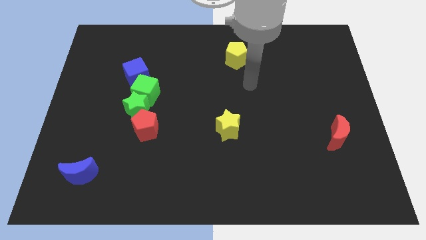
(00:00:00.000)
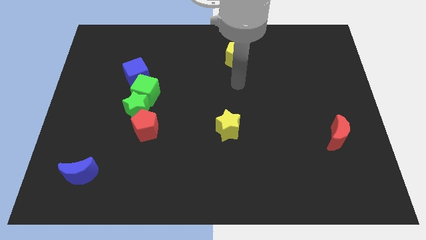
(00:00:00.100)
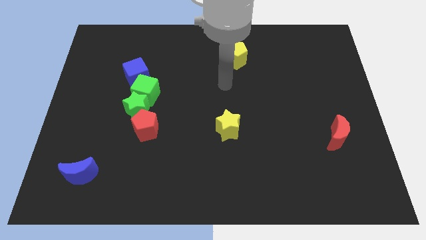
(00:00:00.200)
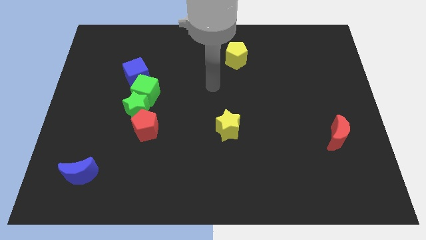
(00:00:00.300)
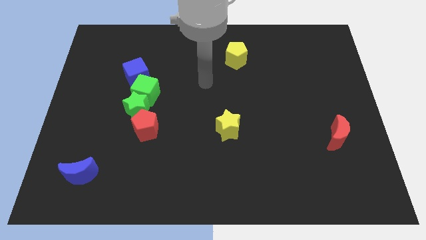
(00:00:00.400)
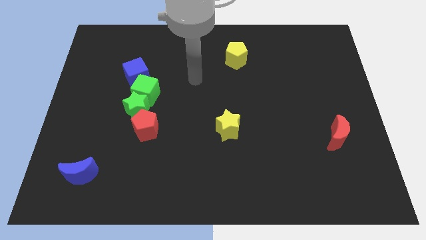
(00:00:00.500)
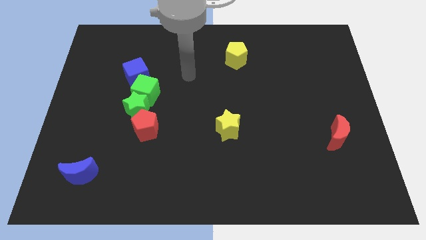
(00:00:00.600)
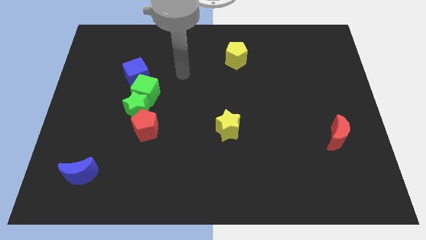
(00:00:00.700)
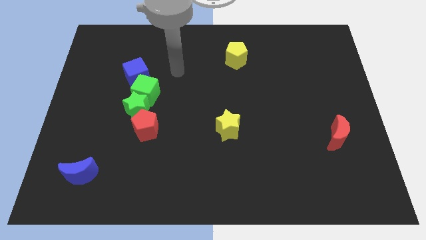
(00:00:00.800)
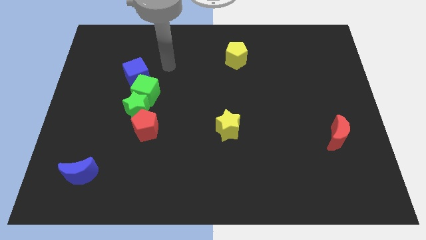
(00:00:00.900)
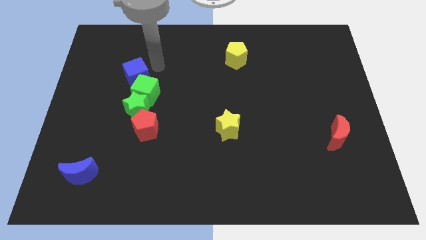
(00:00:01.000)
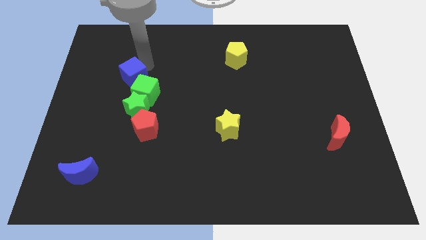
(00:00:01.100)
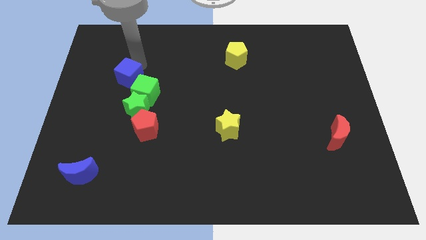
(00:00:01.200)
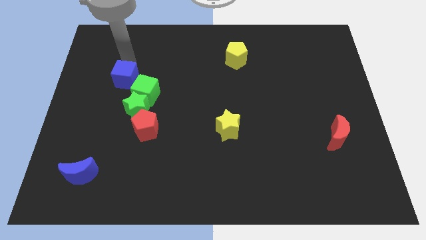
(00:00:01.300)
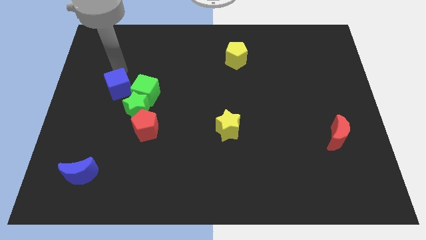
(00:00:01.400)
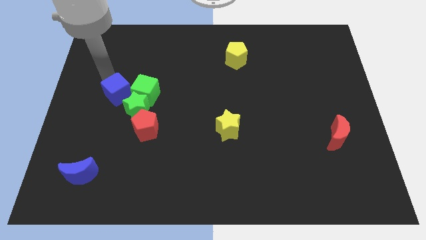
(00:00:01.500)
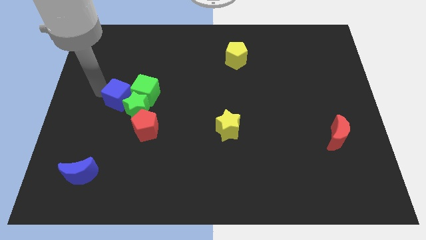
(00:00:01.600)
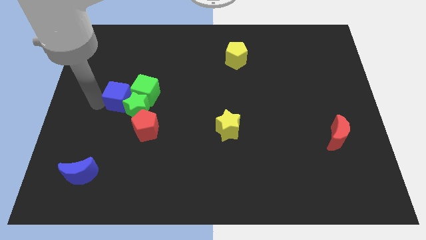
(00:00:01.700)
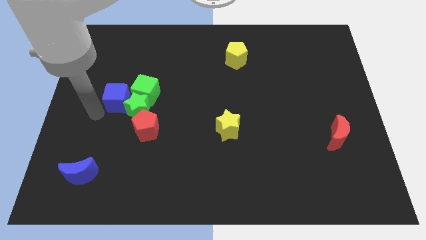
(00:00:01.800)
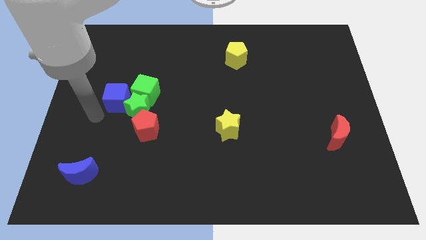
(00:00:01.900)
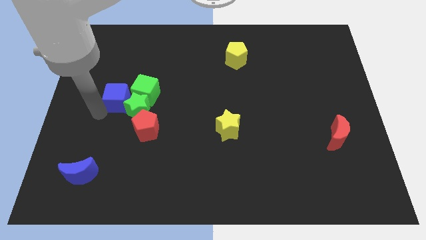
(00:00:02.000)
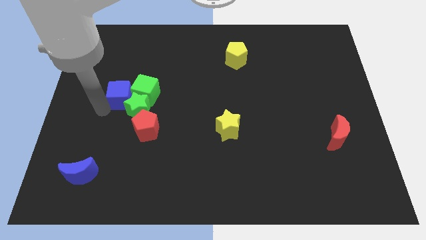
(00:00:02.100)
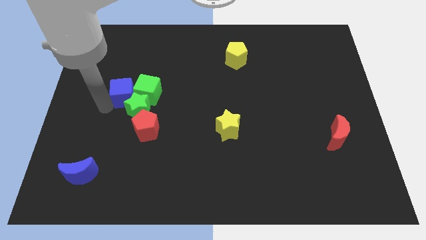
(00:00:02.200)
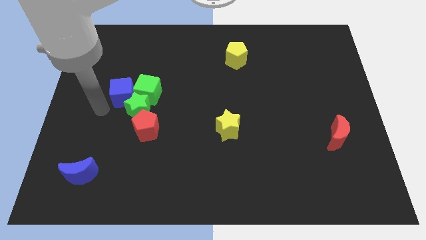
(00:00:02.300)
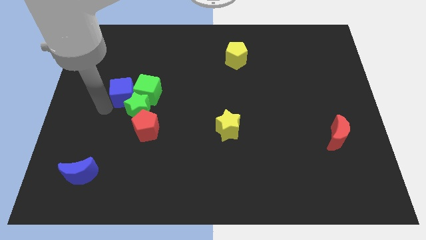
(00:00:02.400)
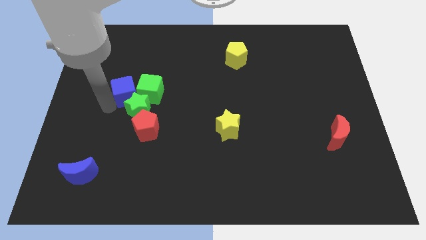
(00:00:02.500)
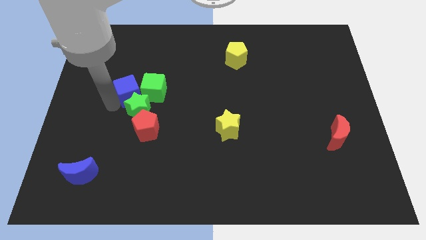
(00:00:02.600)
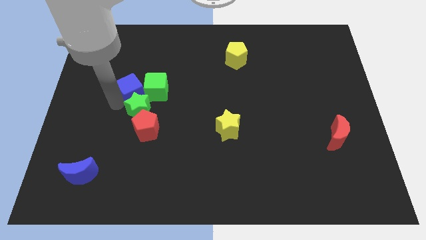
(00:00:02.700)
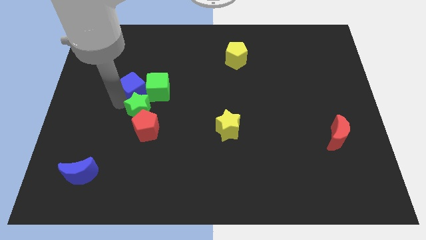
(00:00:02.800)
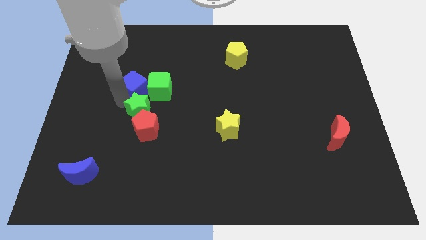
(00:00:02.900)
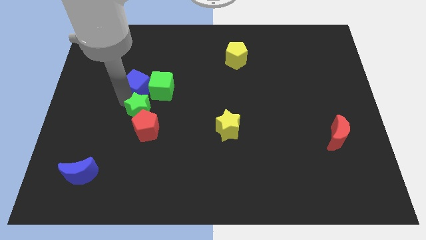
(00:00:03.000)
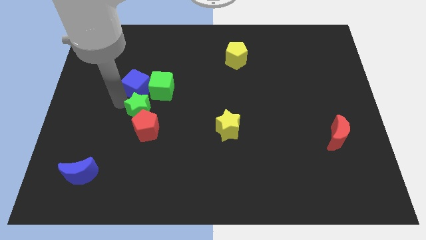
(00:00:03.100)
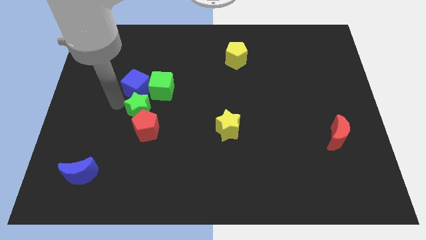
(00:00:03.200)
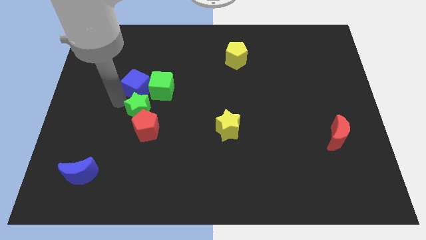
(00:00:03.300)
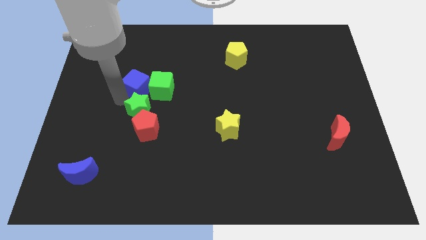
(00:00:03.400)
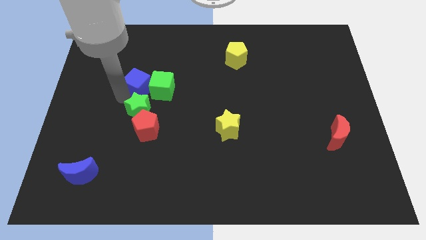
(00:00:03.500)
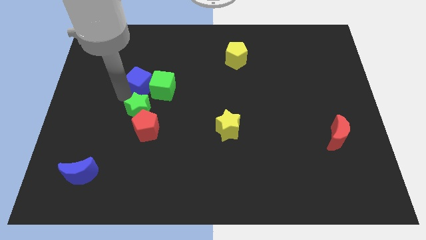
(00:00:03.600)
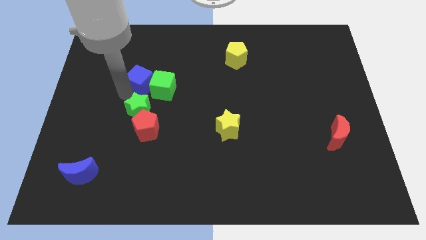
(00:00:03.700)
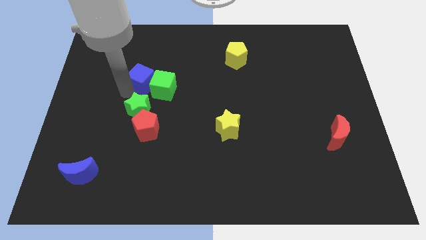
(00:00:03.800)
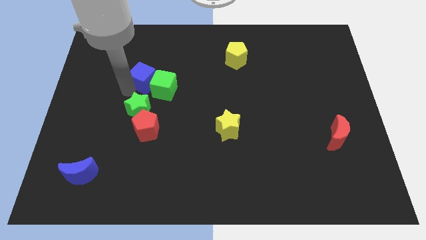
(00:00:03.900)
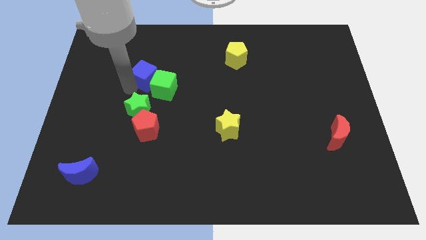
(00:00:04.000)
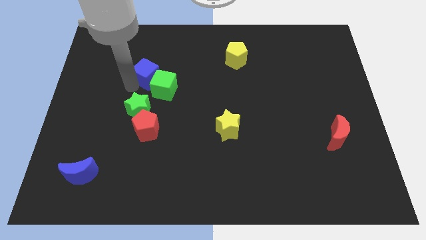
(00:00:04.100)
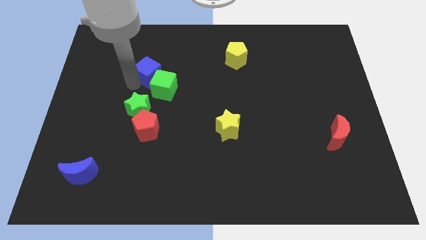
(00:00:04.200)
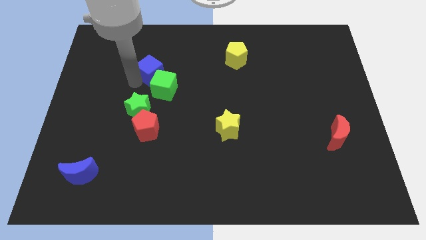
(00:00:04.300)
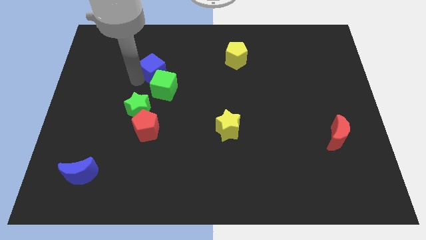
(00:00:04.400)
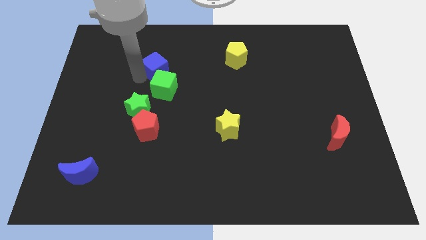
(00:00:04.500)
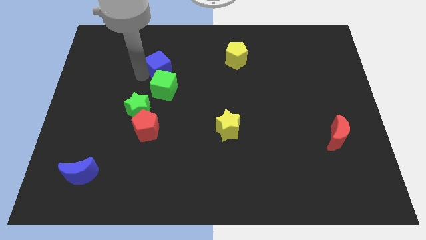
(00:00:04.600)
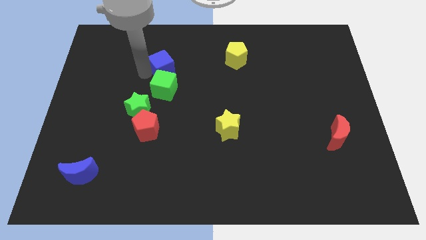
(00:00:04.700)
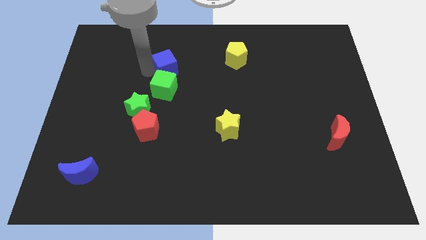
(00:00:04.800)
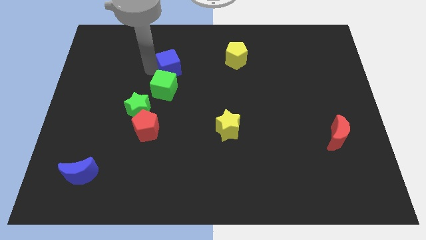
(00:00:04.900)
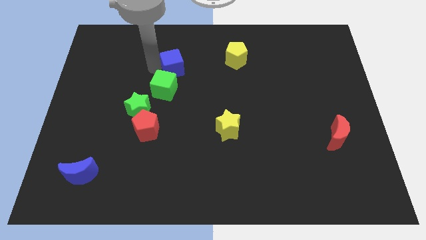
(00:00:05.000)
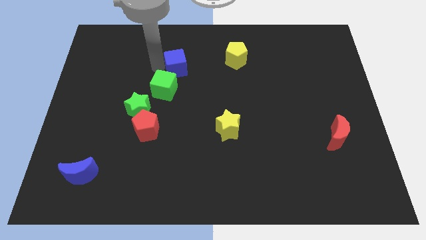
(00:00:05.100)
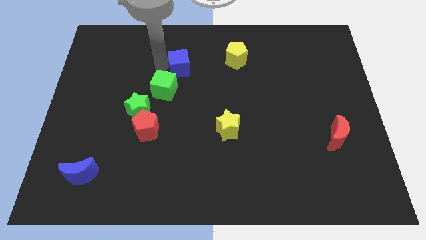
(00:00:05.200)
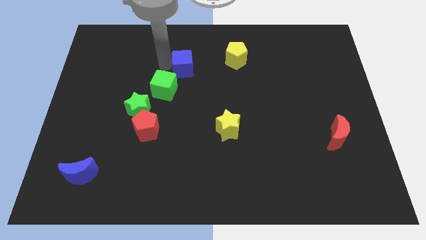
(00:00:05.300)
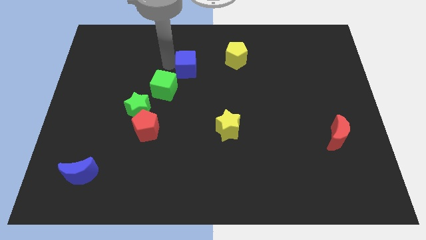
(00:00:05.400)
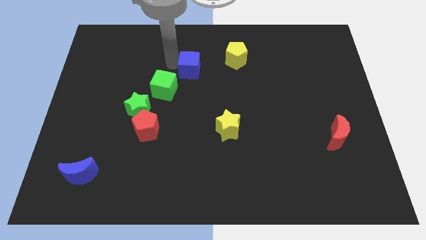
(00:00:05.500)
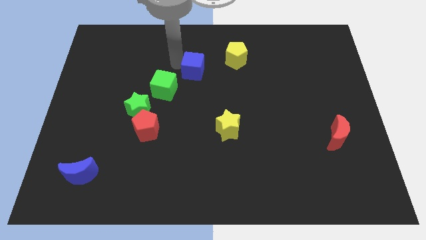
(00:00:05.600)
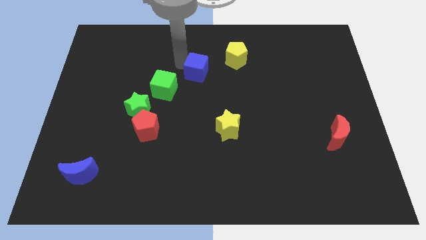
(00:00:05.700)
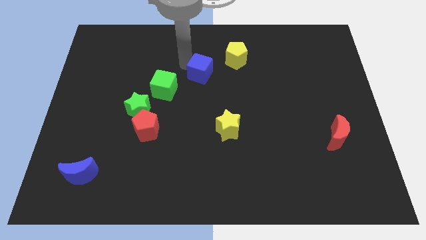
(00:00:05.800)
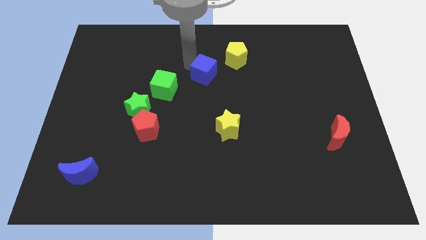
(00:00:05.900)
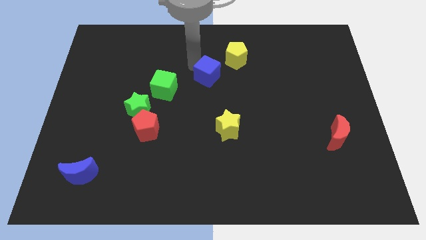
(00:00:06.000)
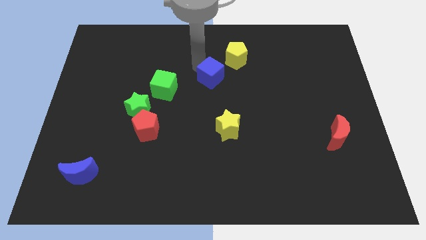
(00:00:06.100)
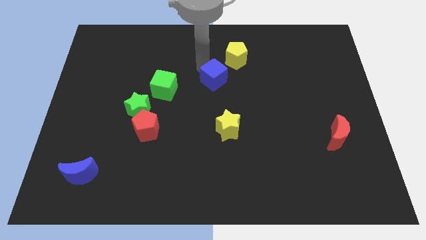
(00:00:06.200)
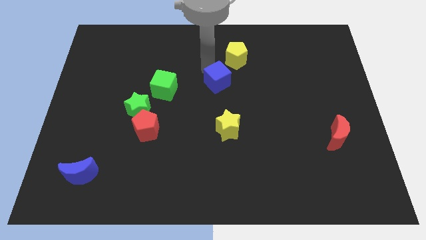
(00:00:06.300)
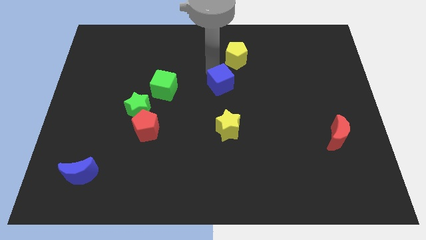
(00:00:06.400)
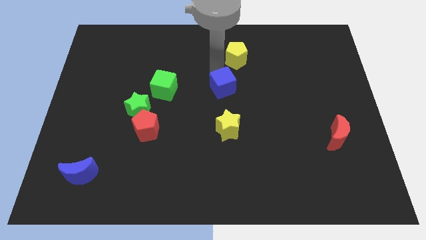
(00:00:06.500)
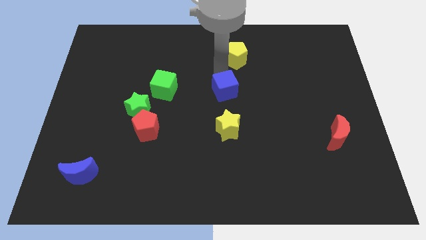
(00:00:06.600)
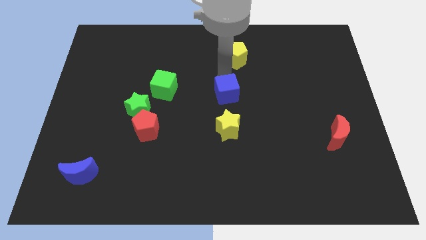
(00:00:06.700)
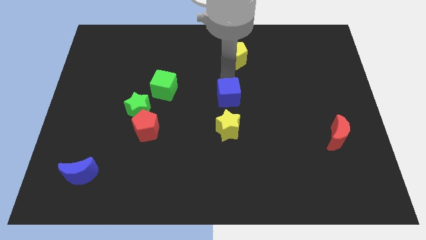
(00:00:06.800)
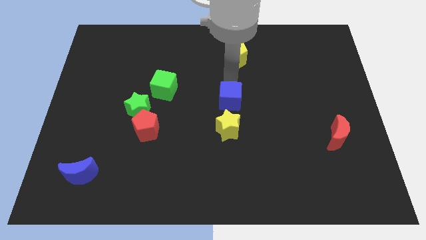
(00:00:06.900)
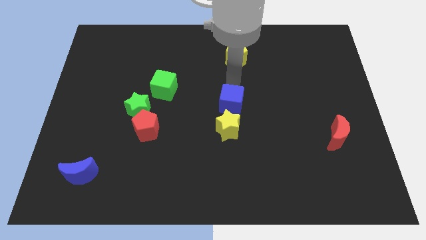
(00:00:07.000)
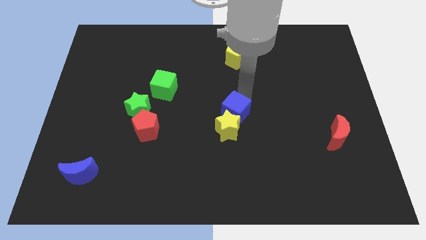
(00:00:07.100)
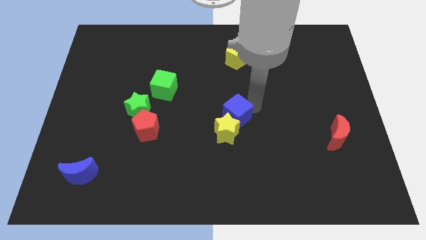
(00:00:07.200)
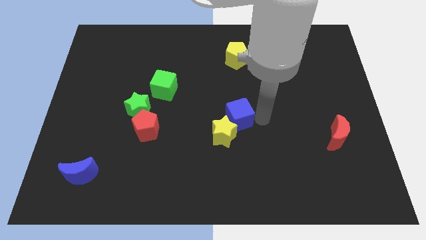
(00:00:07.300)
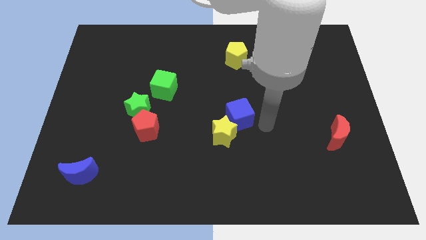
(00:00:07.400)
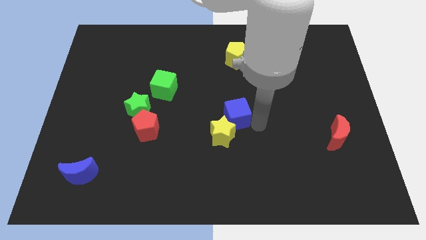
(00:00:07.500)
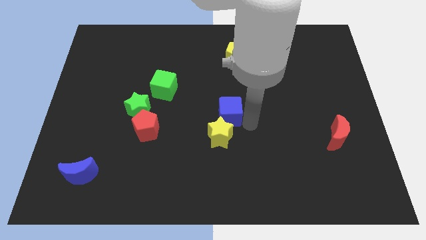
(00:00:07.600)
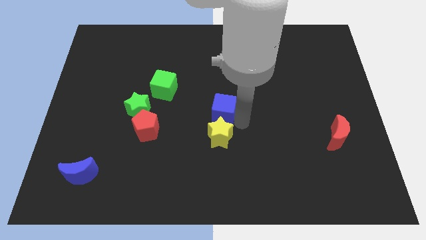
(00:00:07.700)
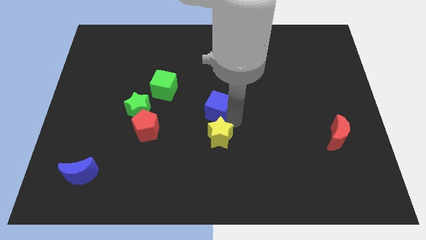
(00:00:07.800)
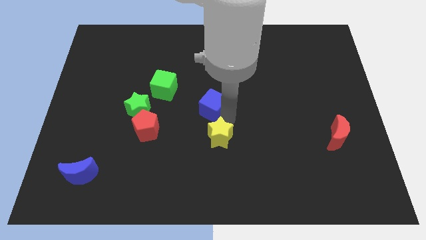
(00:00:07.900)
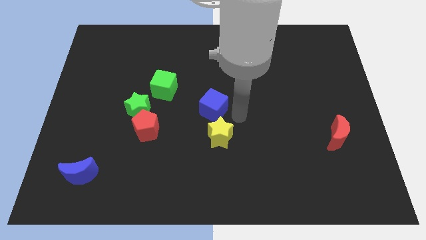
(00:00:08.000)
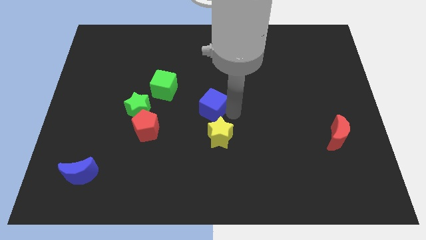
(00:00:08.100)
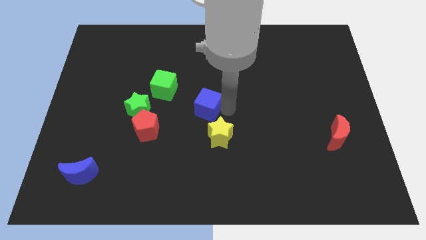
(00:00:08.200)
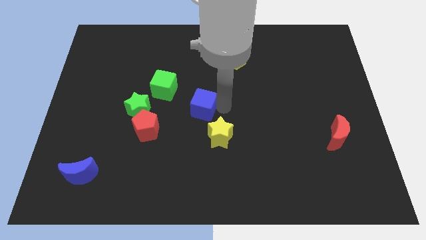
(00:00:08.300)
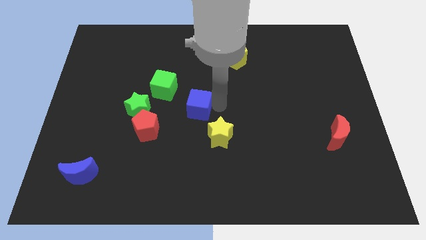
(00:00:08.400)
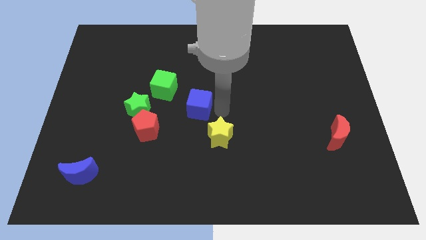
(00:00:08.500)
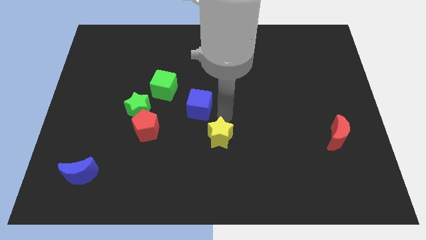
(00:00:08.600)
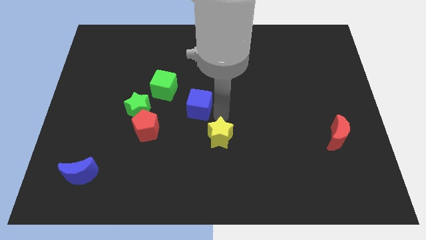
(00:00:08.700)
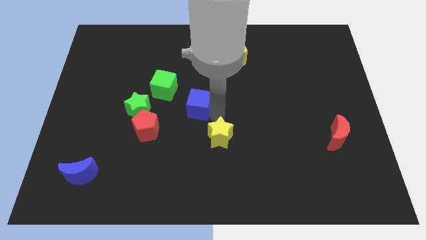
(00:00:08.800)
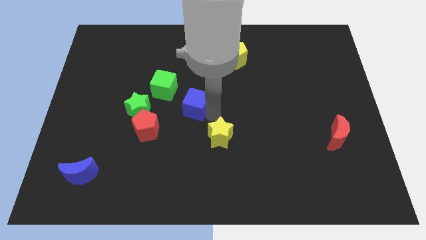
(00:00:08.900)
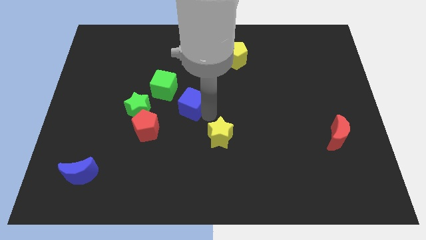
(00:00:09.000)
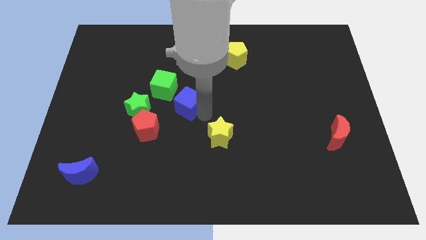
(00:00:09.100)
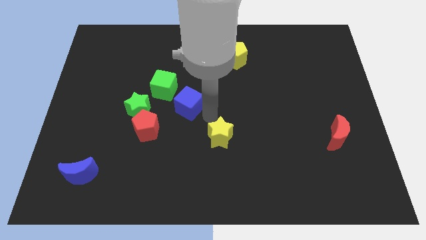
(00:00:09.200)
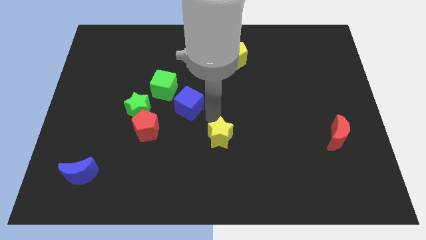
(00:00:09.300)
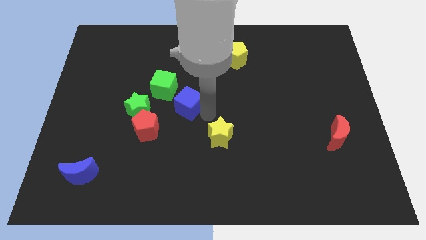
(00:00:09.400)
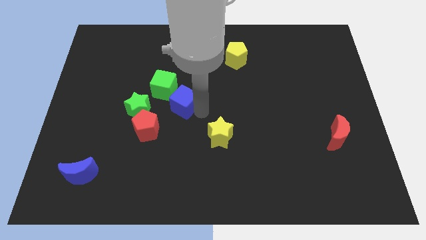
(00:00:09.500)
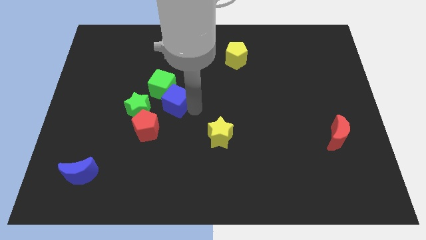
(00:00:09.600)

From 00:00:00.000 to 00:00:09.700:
put the blue cube to the top right side of the green star
